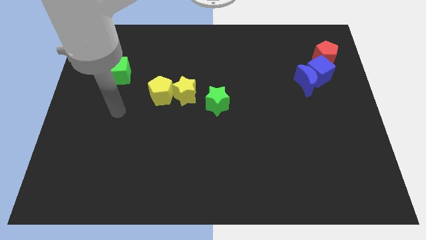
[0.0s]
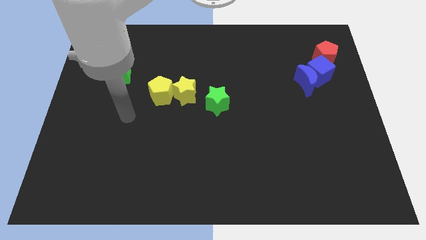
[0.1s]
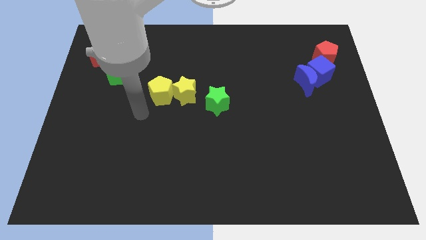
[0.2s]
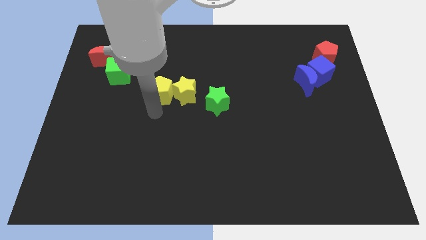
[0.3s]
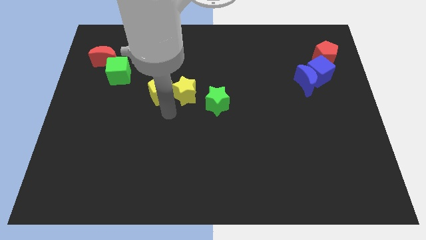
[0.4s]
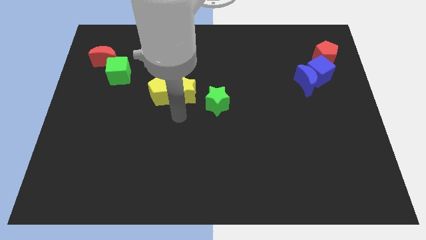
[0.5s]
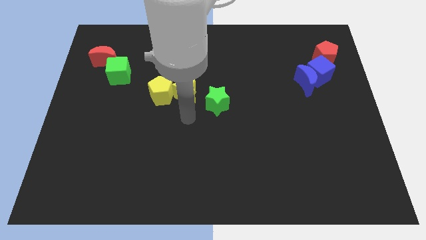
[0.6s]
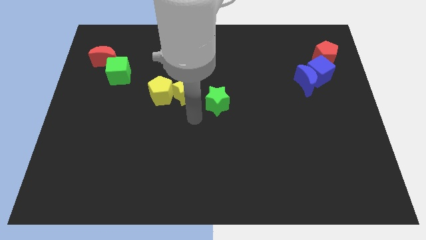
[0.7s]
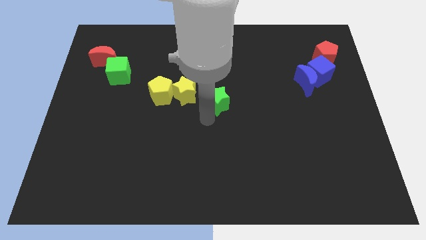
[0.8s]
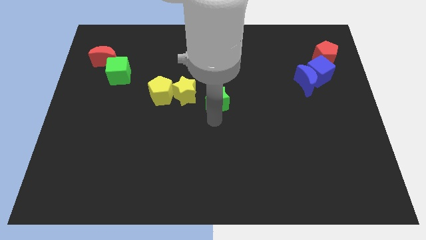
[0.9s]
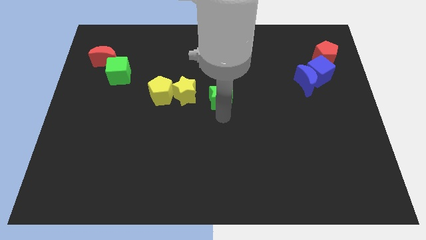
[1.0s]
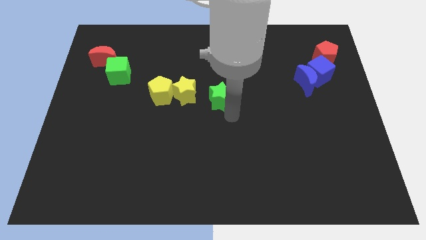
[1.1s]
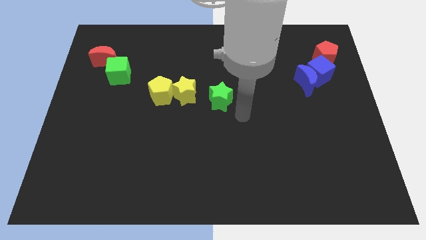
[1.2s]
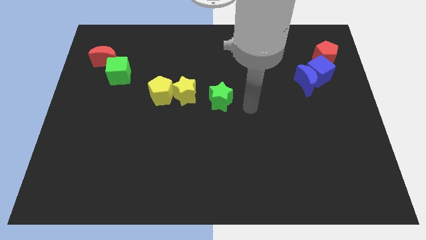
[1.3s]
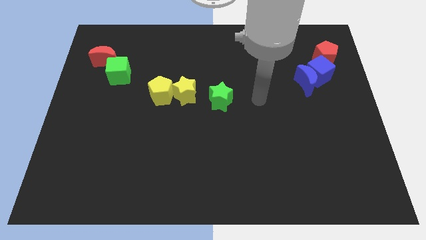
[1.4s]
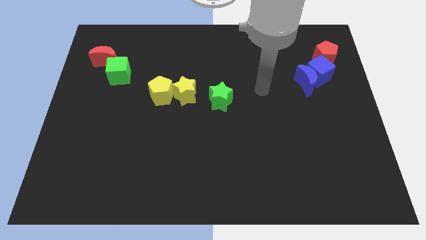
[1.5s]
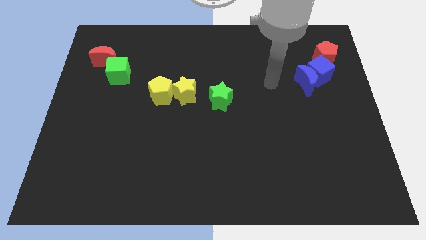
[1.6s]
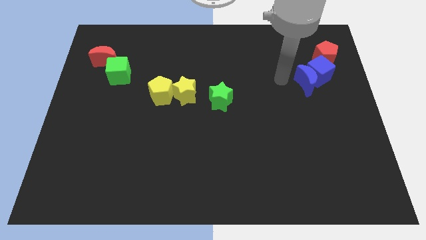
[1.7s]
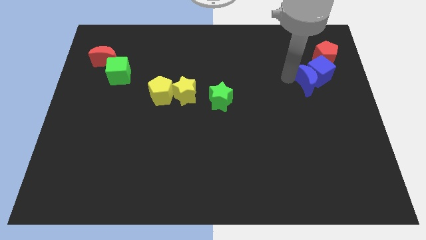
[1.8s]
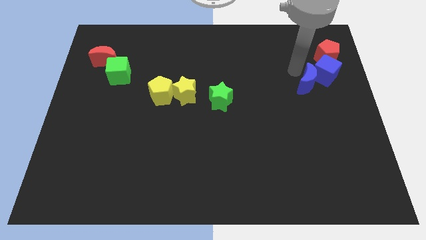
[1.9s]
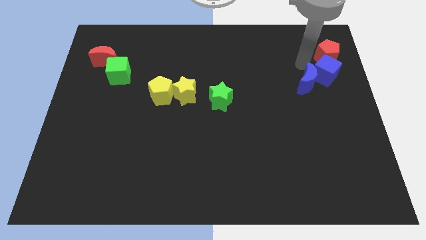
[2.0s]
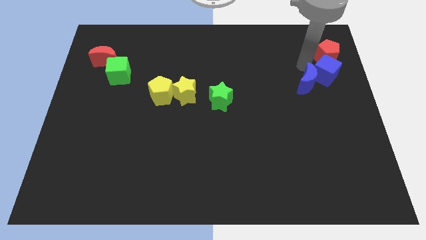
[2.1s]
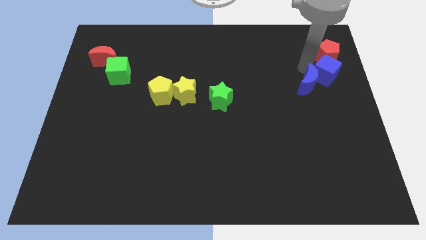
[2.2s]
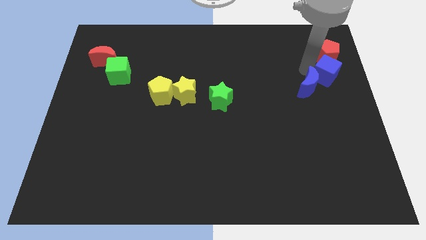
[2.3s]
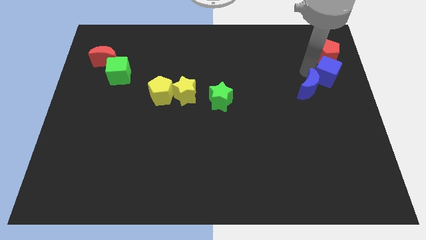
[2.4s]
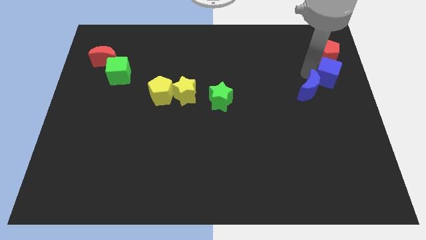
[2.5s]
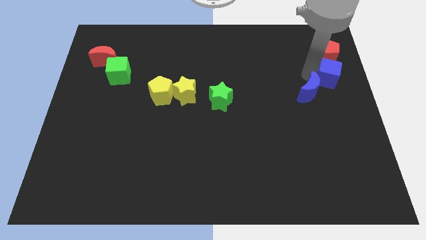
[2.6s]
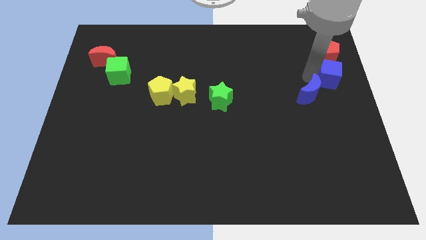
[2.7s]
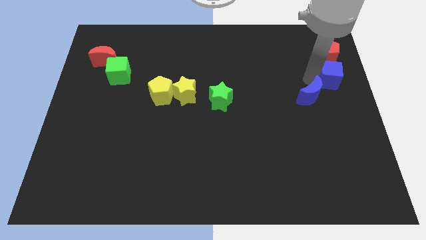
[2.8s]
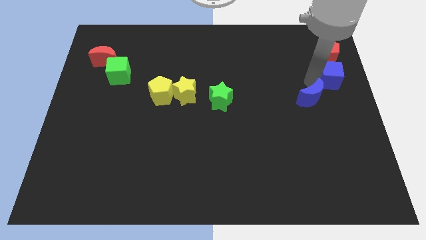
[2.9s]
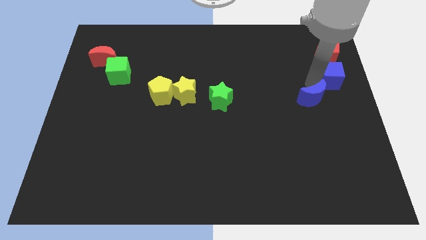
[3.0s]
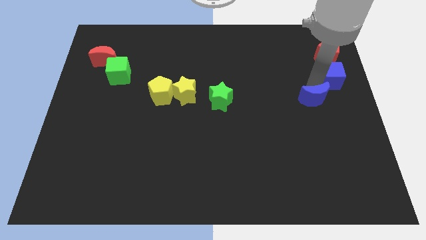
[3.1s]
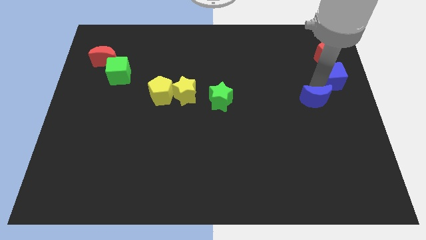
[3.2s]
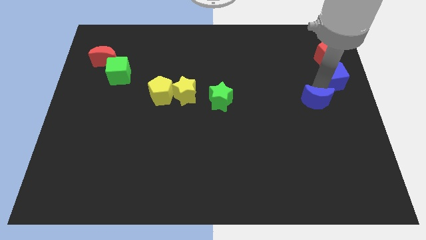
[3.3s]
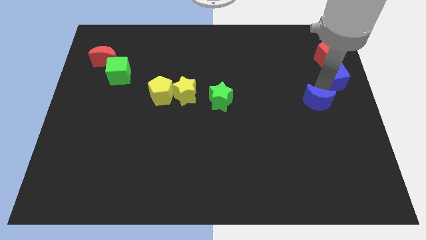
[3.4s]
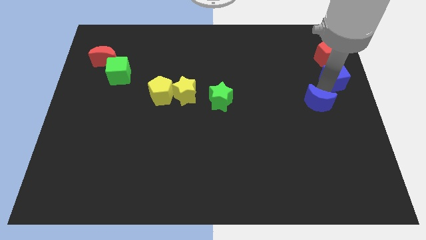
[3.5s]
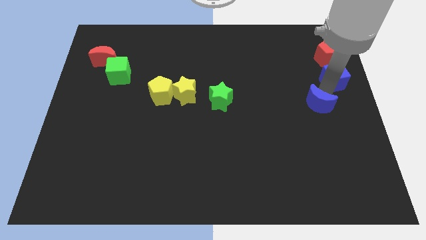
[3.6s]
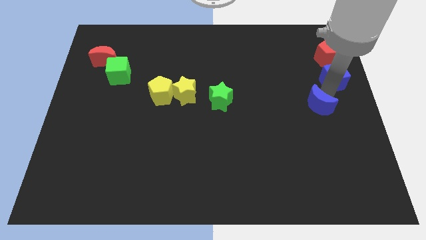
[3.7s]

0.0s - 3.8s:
slightly slide the blue moon downwards

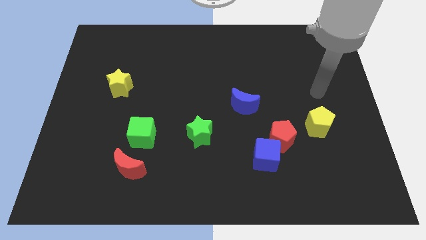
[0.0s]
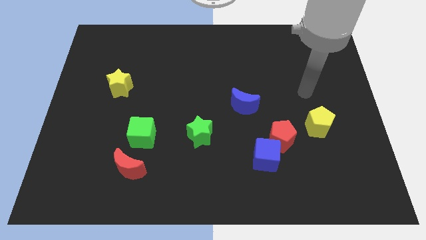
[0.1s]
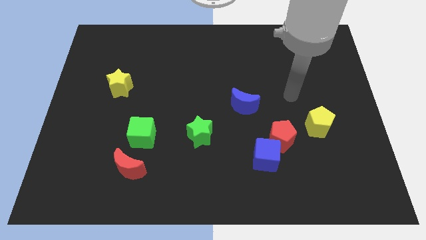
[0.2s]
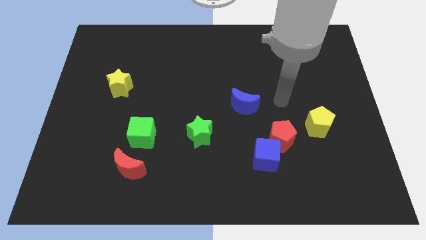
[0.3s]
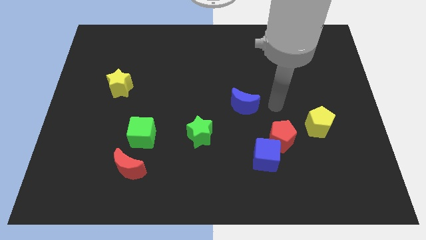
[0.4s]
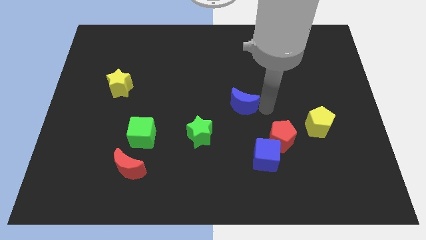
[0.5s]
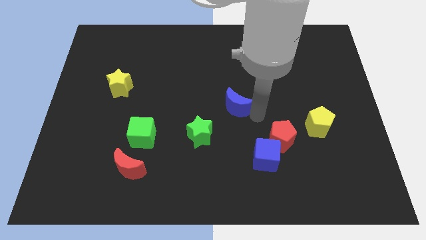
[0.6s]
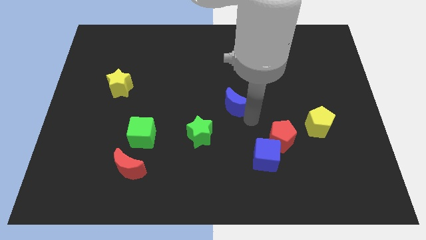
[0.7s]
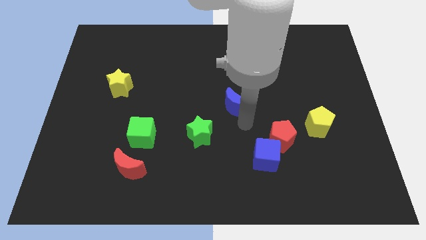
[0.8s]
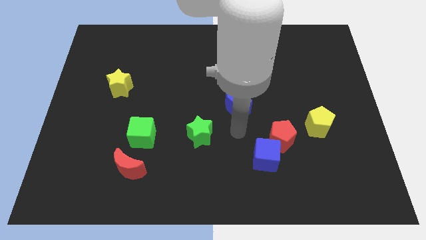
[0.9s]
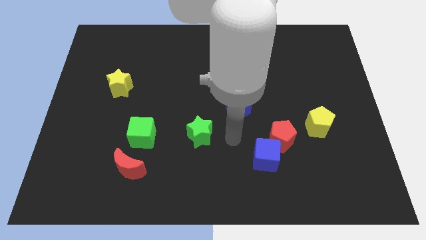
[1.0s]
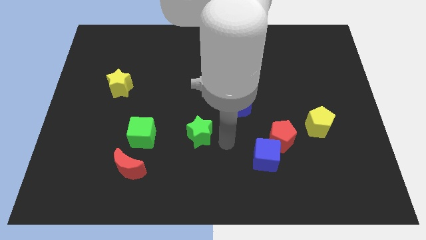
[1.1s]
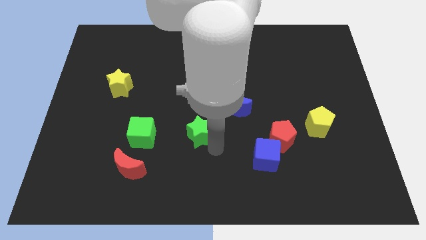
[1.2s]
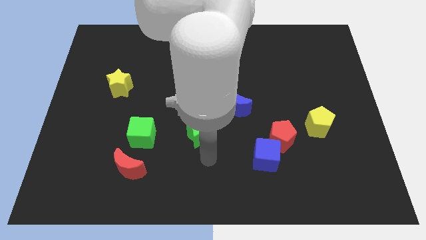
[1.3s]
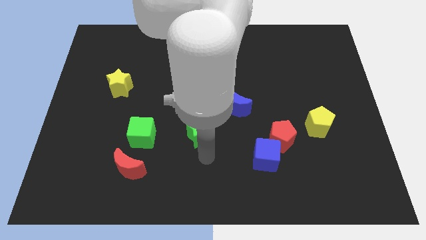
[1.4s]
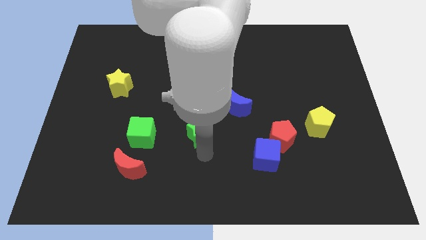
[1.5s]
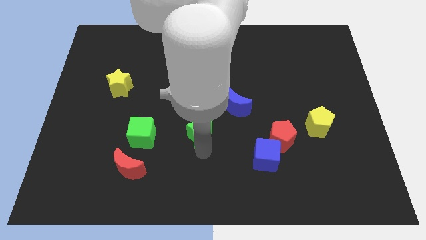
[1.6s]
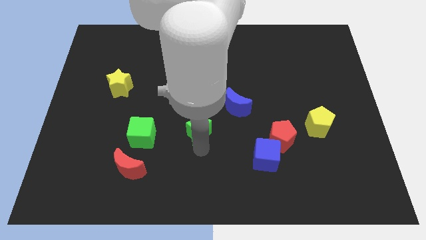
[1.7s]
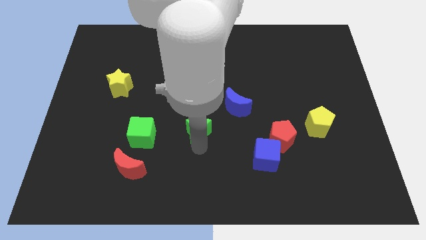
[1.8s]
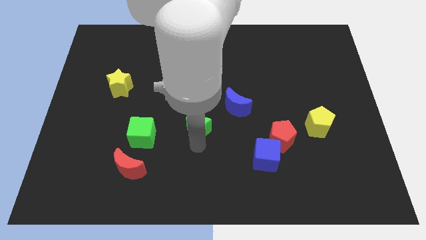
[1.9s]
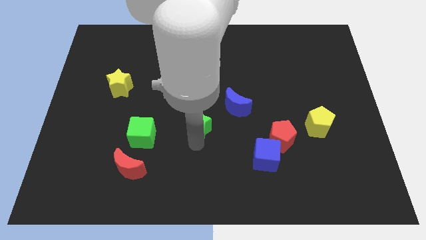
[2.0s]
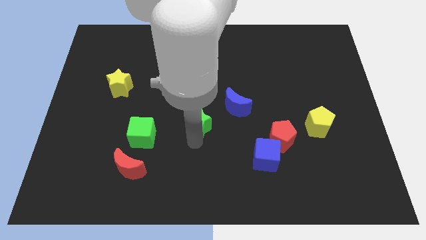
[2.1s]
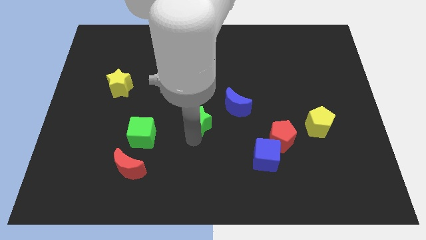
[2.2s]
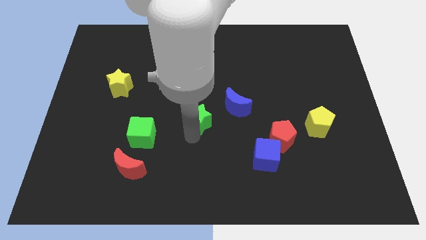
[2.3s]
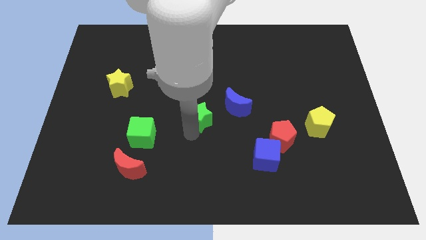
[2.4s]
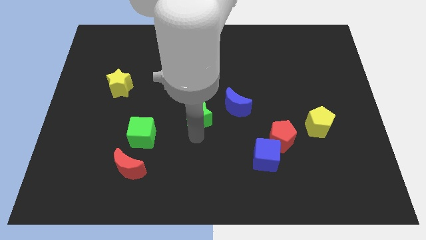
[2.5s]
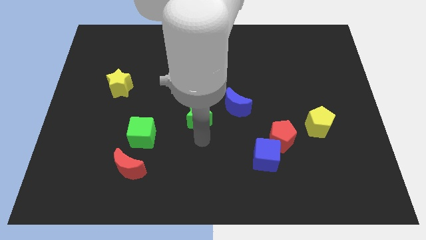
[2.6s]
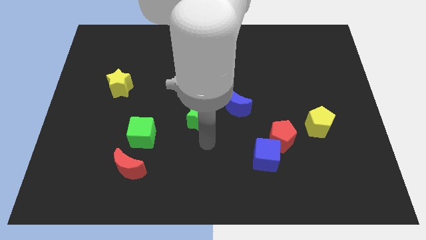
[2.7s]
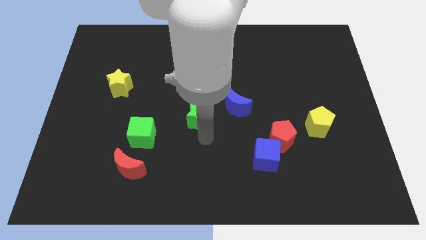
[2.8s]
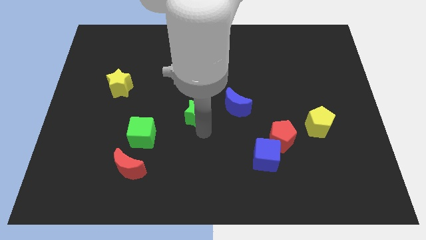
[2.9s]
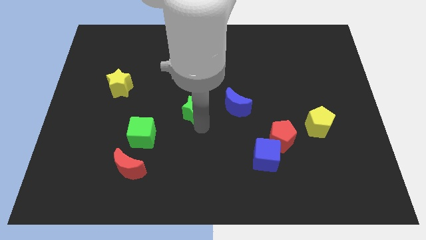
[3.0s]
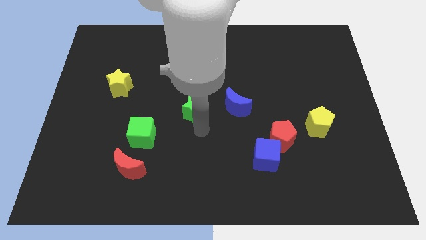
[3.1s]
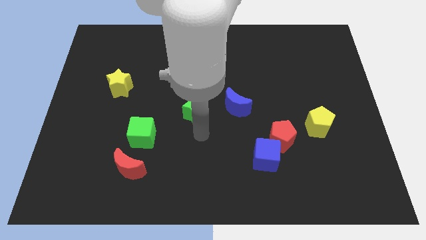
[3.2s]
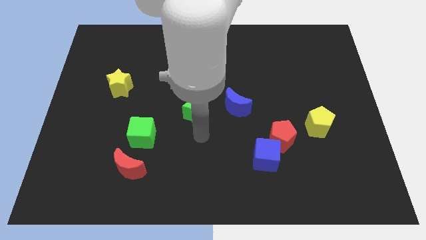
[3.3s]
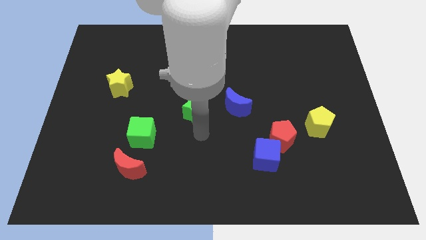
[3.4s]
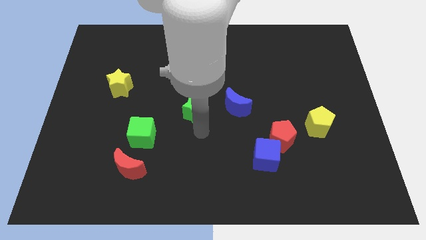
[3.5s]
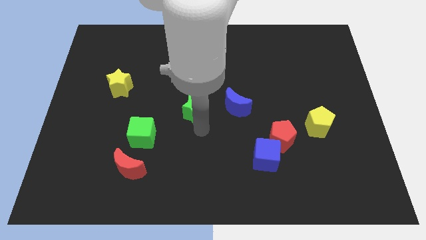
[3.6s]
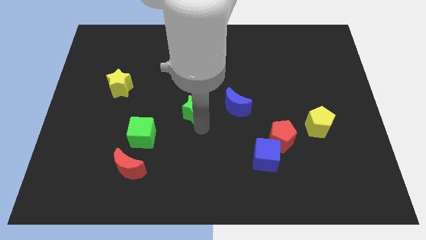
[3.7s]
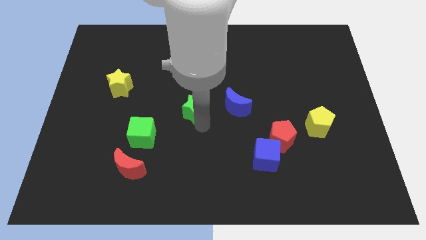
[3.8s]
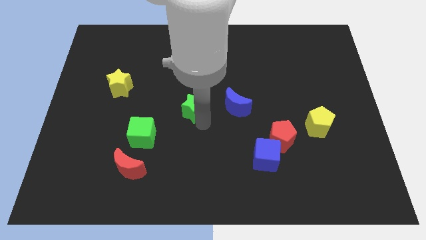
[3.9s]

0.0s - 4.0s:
push the green star a little bit up

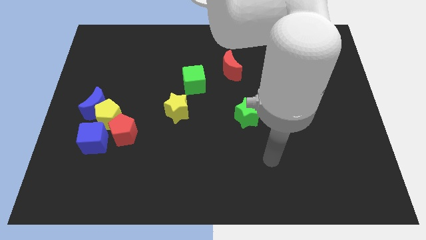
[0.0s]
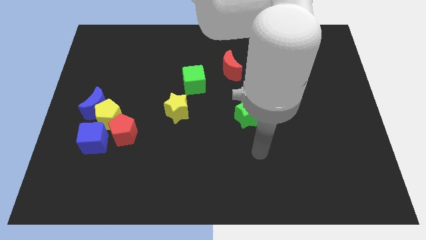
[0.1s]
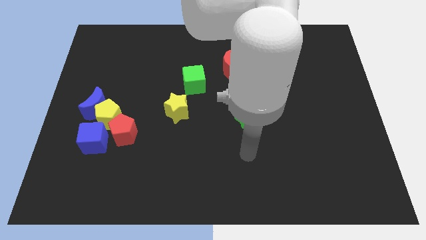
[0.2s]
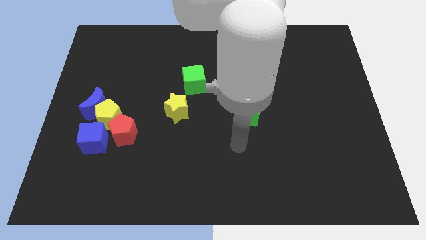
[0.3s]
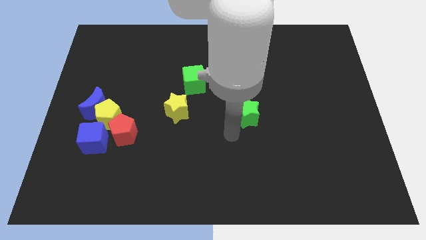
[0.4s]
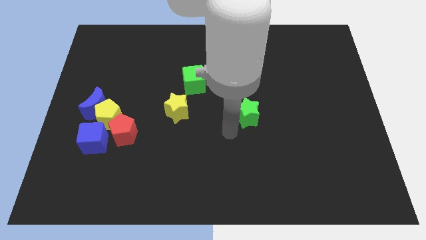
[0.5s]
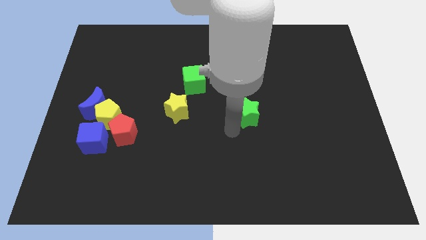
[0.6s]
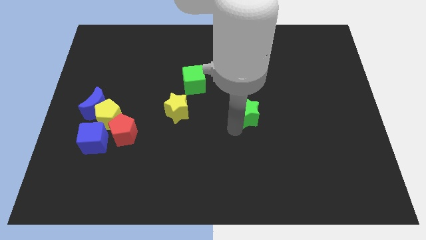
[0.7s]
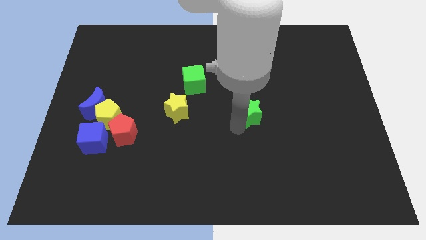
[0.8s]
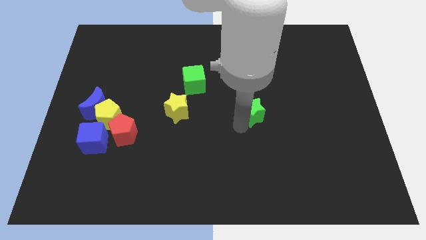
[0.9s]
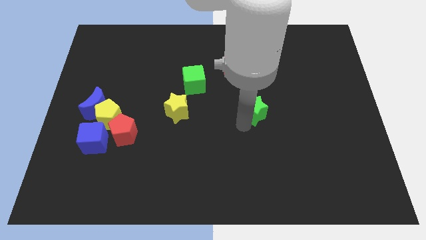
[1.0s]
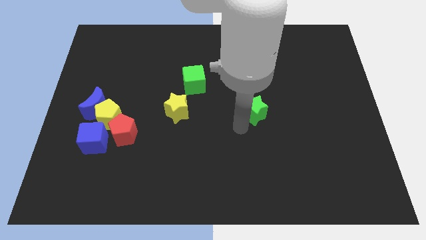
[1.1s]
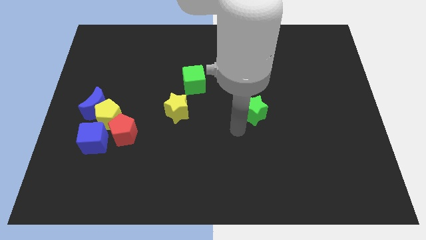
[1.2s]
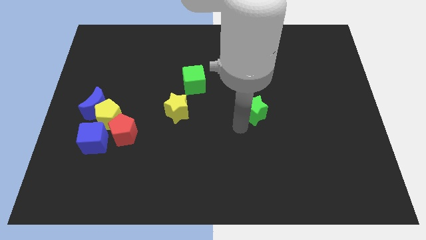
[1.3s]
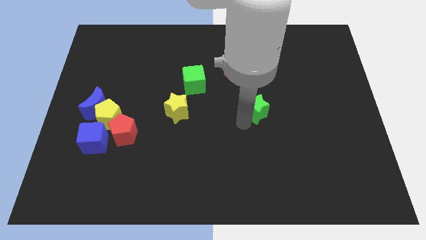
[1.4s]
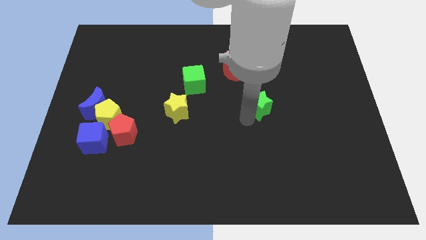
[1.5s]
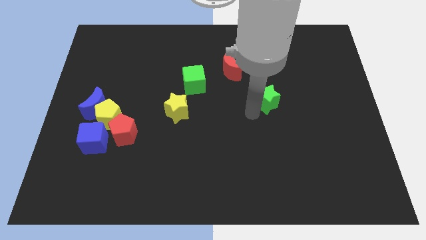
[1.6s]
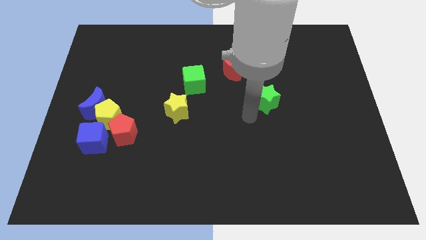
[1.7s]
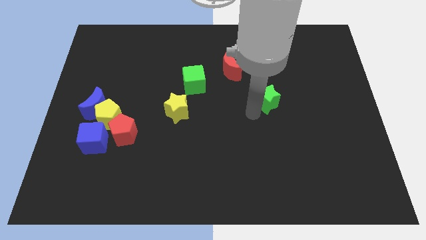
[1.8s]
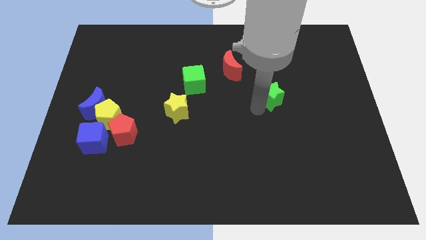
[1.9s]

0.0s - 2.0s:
move the green star upwards and to the right diagonally somewhat
